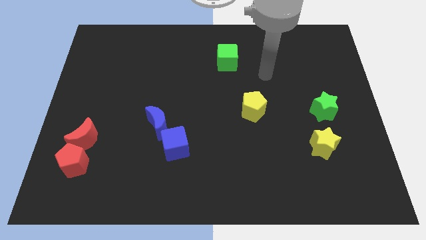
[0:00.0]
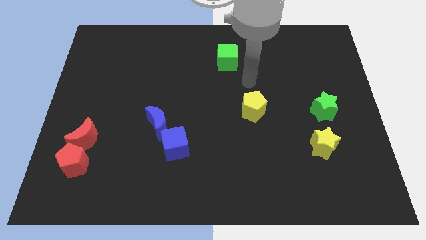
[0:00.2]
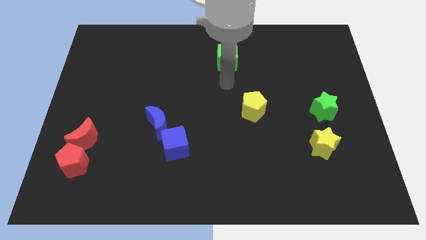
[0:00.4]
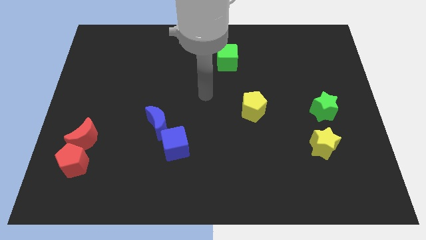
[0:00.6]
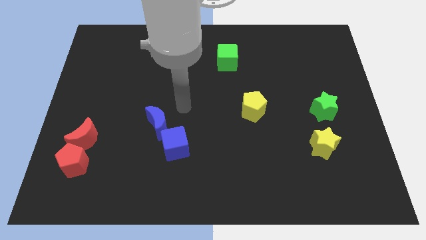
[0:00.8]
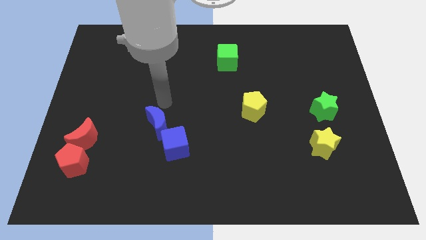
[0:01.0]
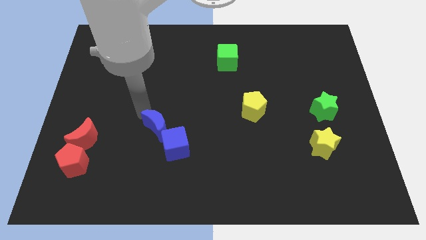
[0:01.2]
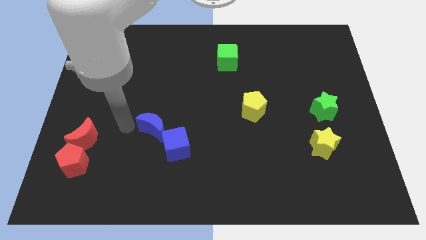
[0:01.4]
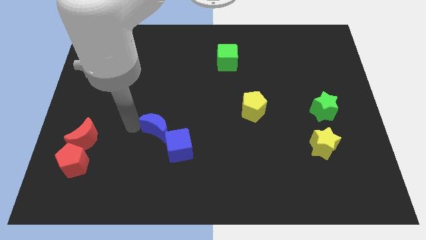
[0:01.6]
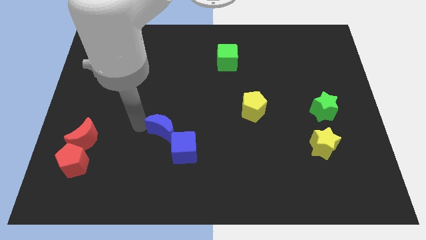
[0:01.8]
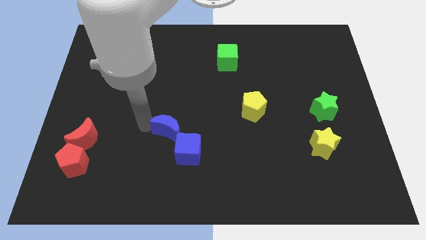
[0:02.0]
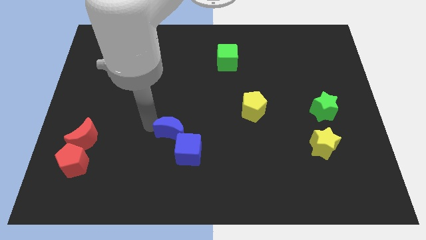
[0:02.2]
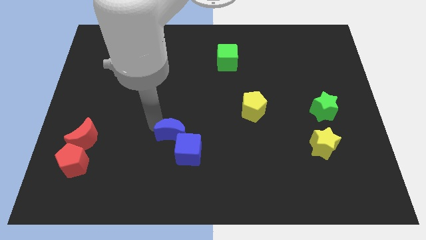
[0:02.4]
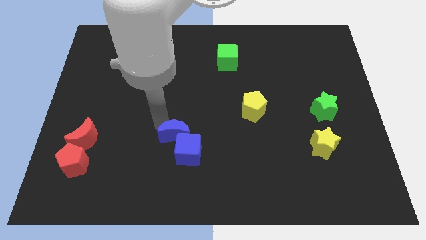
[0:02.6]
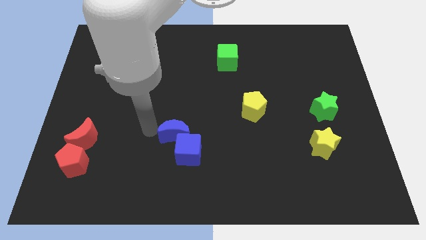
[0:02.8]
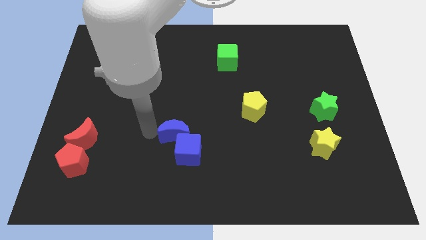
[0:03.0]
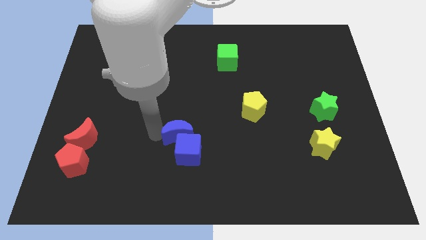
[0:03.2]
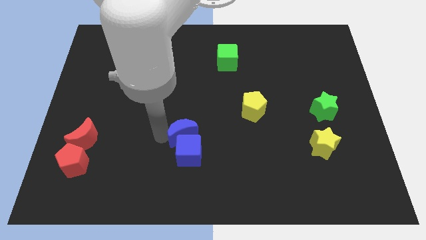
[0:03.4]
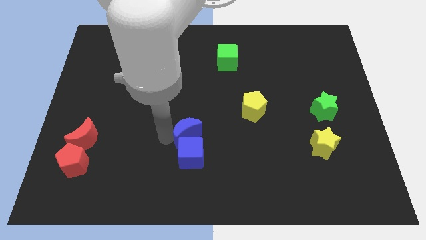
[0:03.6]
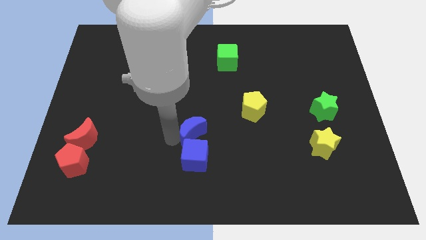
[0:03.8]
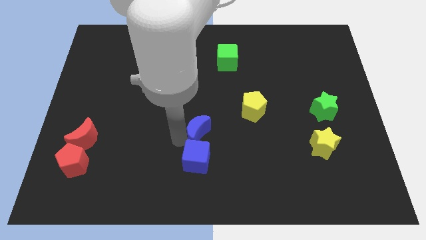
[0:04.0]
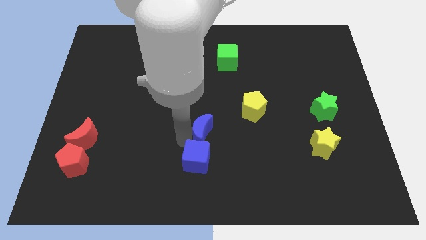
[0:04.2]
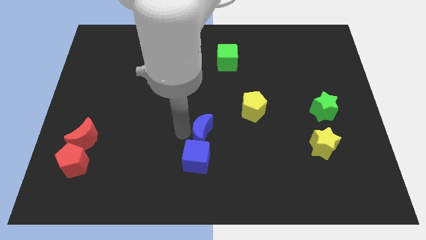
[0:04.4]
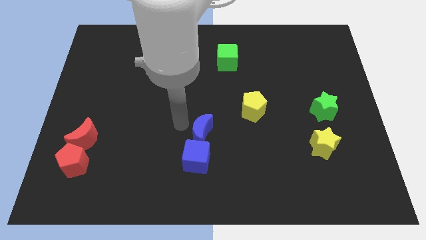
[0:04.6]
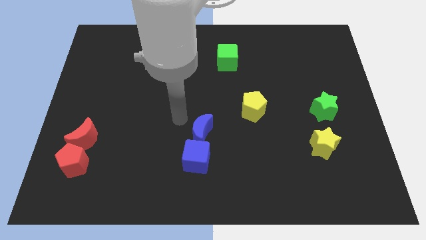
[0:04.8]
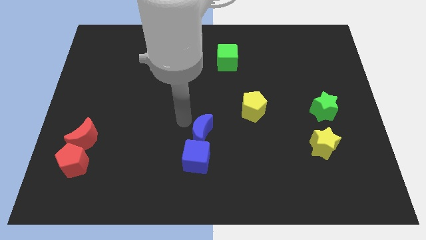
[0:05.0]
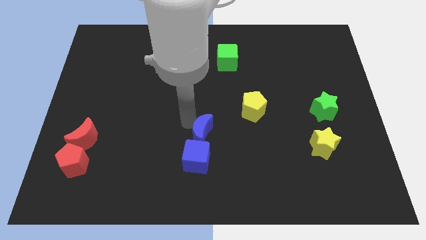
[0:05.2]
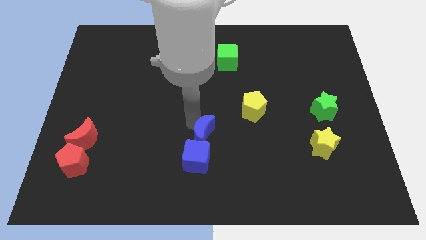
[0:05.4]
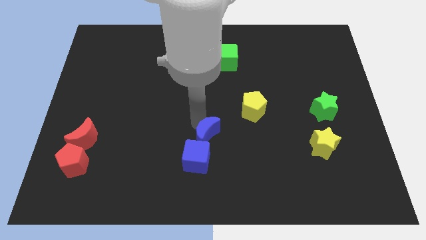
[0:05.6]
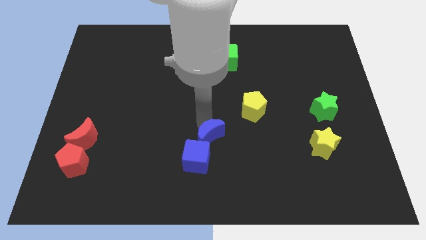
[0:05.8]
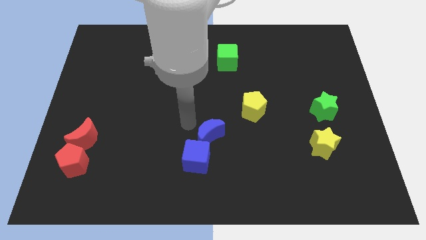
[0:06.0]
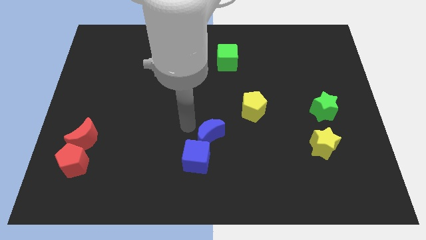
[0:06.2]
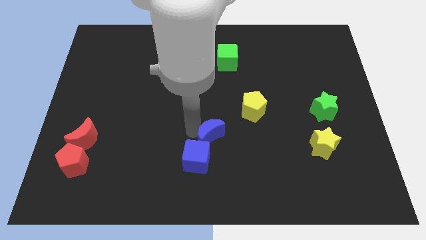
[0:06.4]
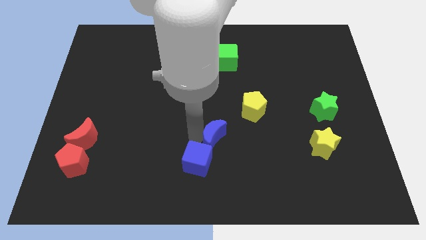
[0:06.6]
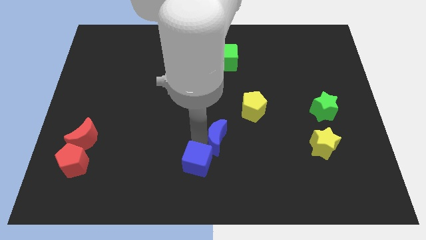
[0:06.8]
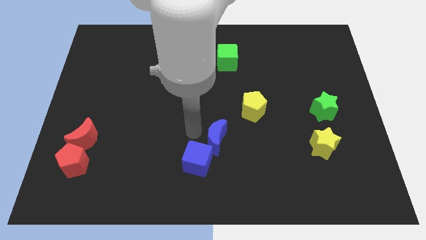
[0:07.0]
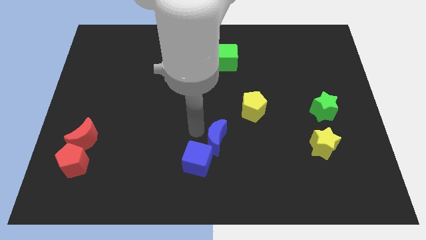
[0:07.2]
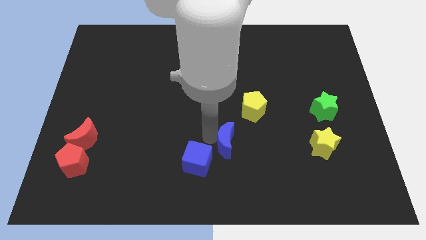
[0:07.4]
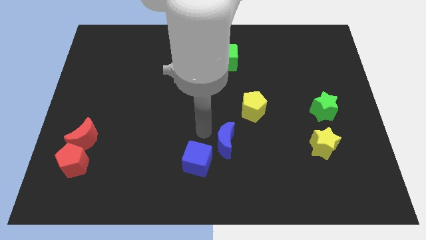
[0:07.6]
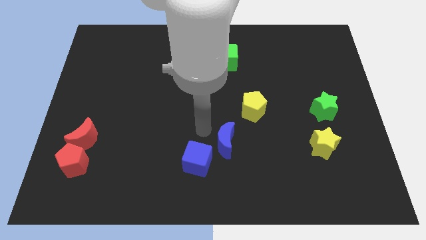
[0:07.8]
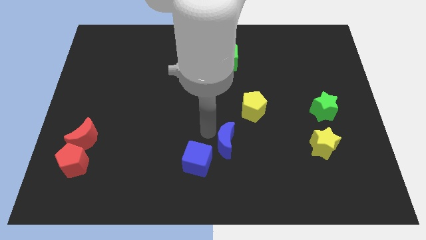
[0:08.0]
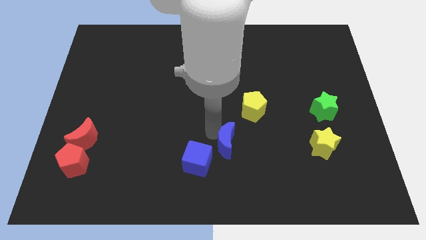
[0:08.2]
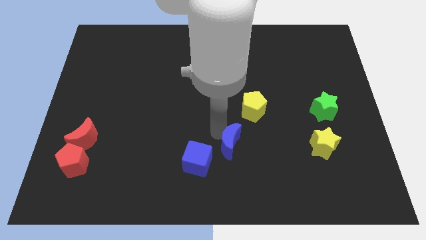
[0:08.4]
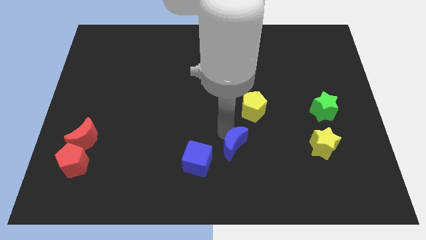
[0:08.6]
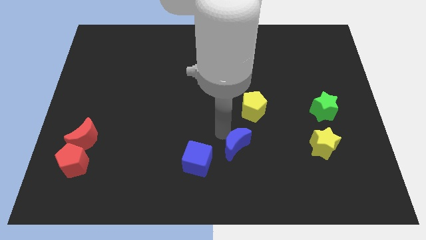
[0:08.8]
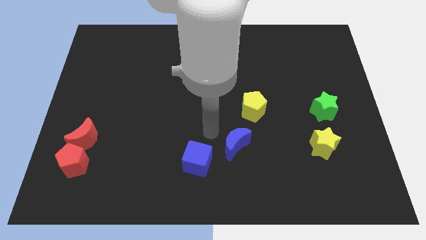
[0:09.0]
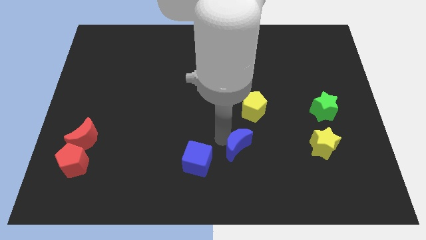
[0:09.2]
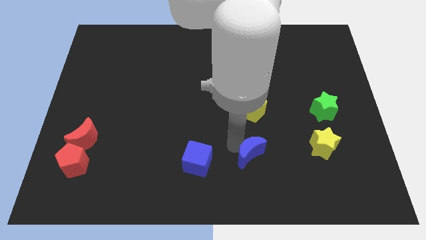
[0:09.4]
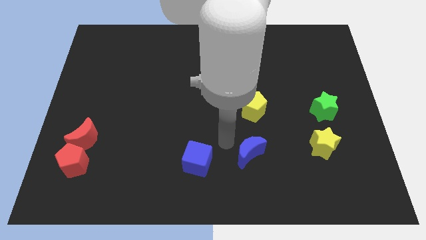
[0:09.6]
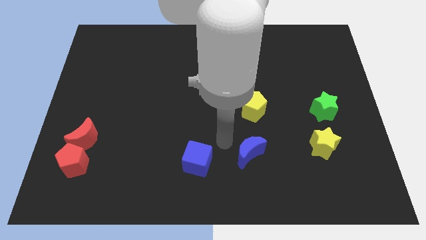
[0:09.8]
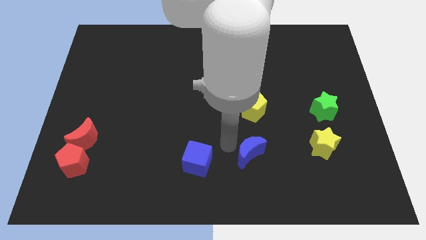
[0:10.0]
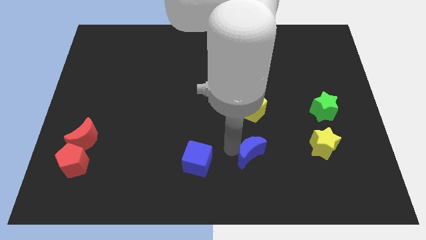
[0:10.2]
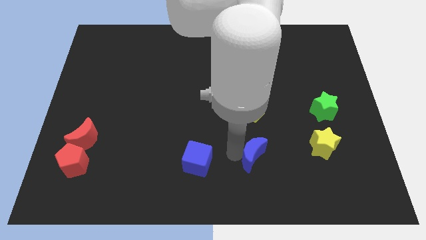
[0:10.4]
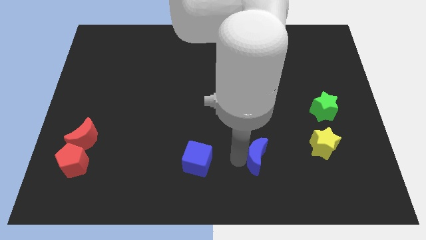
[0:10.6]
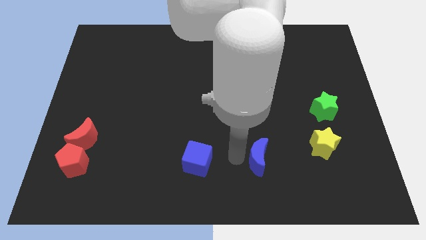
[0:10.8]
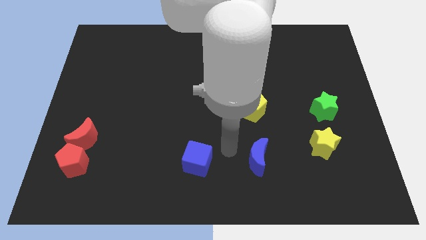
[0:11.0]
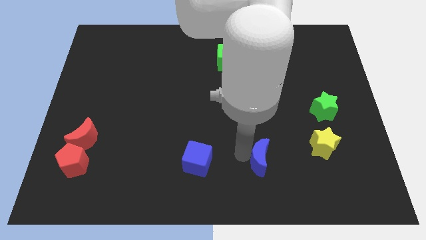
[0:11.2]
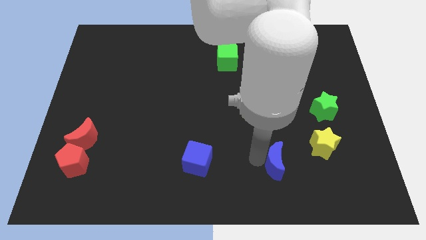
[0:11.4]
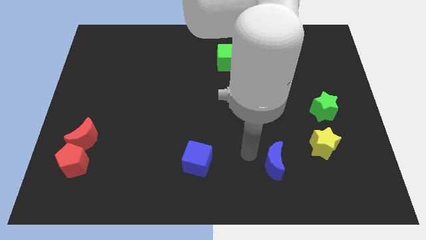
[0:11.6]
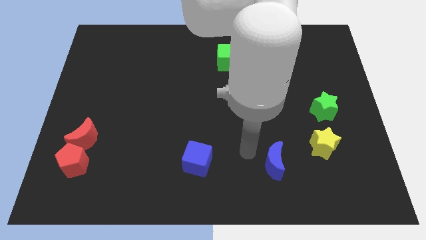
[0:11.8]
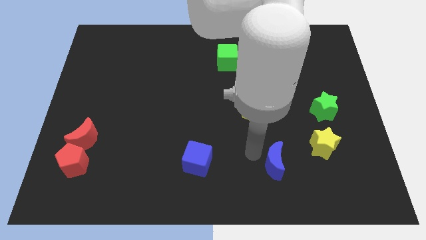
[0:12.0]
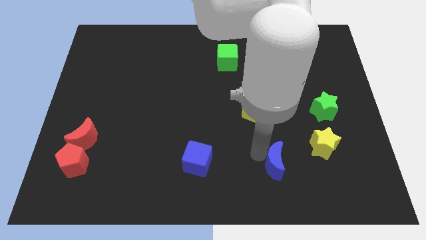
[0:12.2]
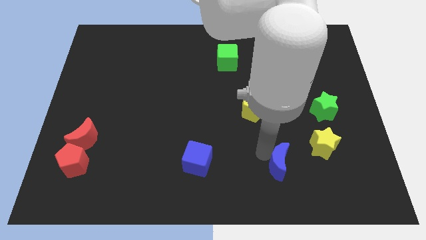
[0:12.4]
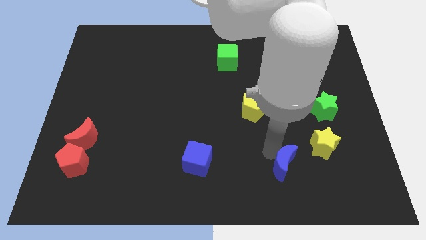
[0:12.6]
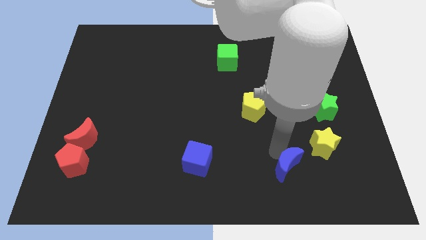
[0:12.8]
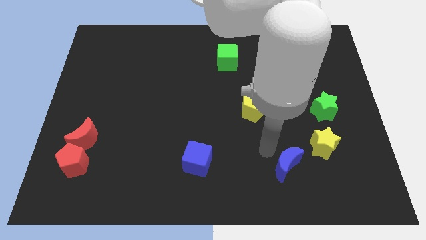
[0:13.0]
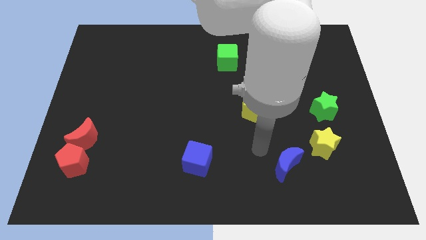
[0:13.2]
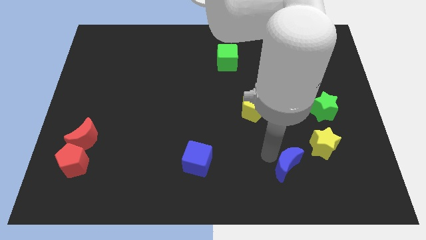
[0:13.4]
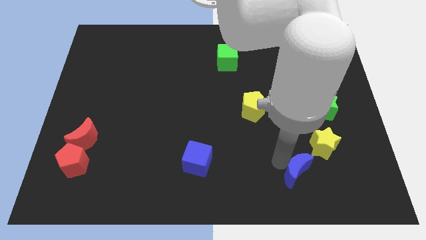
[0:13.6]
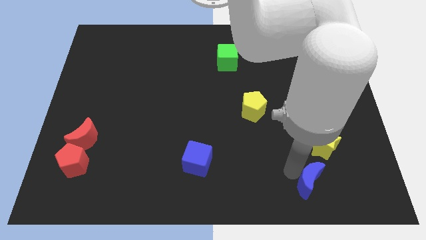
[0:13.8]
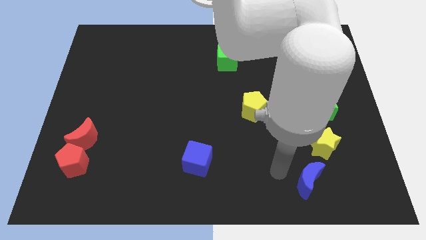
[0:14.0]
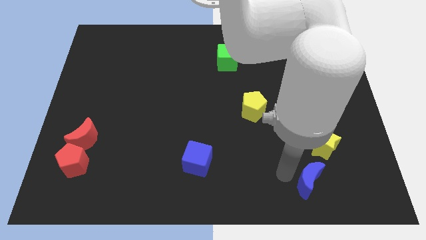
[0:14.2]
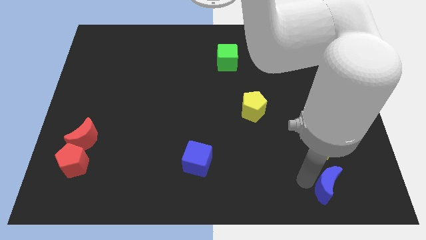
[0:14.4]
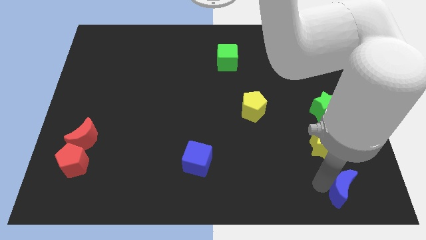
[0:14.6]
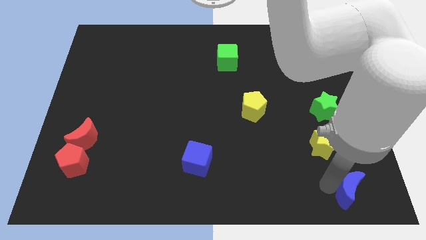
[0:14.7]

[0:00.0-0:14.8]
move the blue moon to the bottom right
